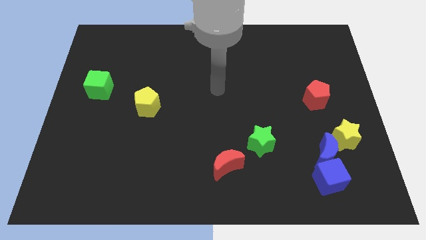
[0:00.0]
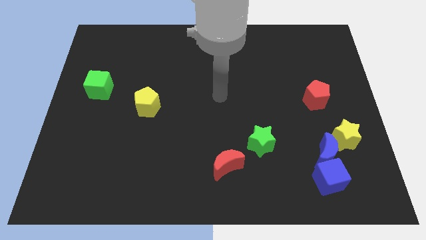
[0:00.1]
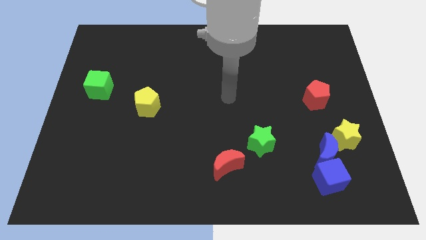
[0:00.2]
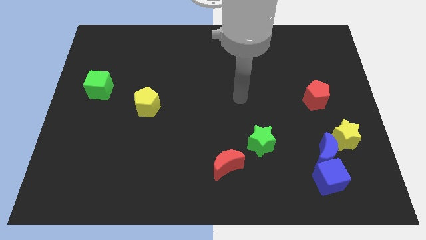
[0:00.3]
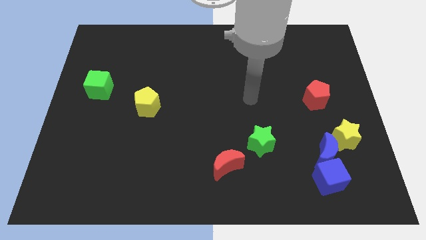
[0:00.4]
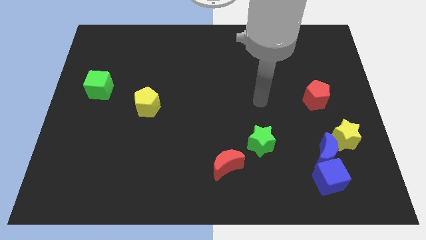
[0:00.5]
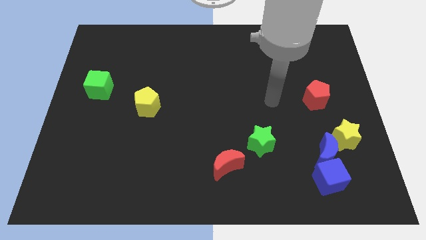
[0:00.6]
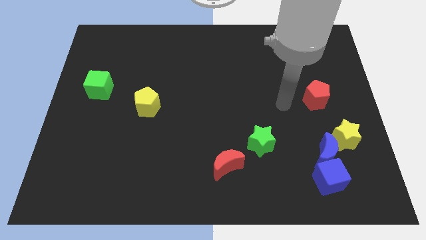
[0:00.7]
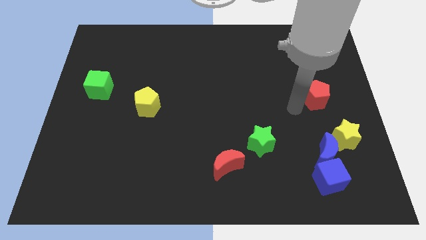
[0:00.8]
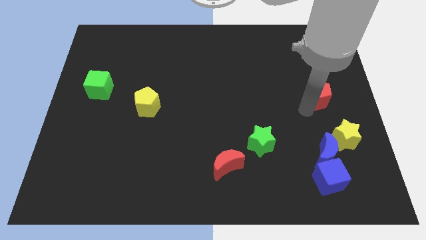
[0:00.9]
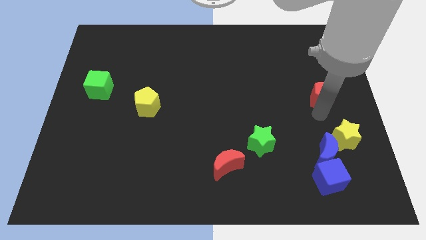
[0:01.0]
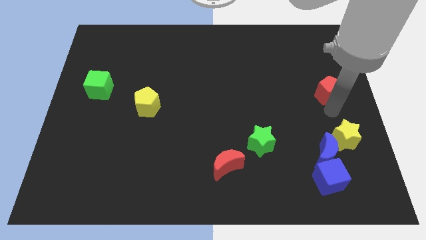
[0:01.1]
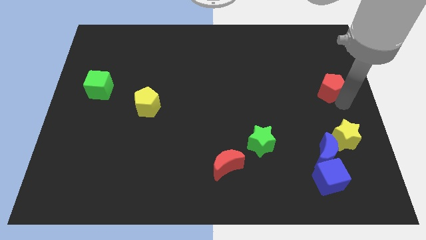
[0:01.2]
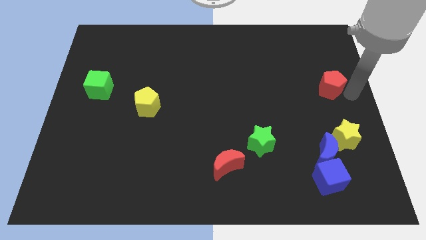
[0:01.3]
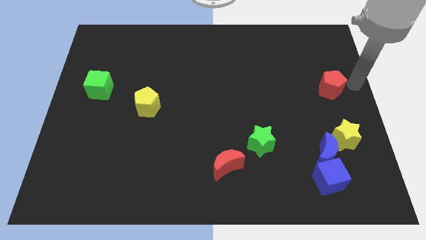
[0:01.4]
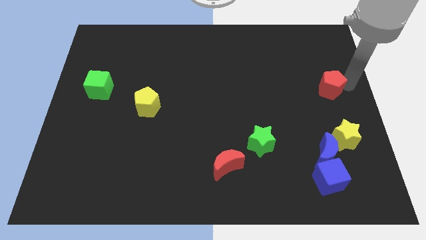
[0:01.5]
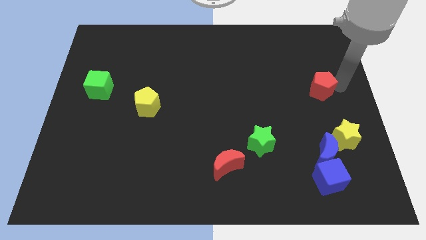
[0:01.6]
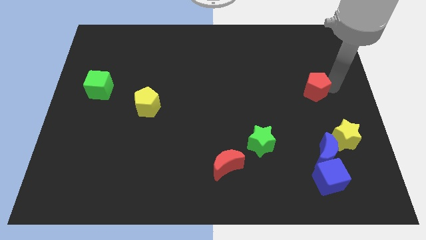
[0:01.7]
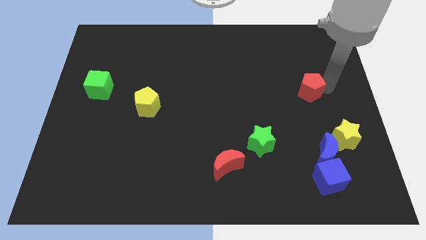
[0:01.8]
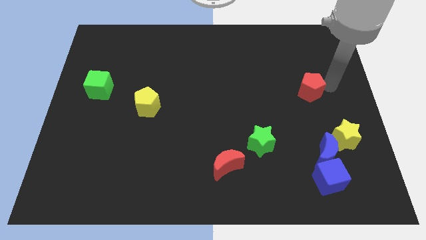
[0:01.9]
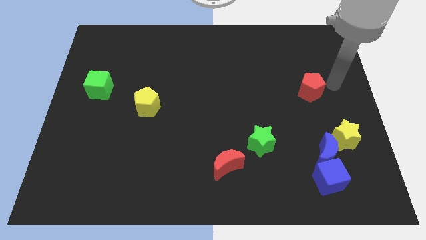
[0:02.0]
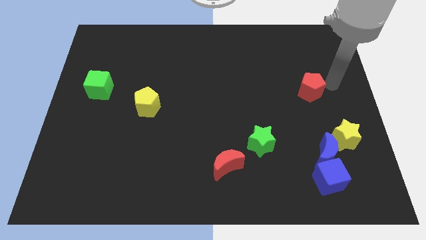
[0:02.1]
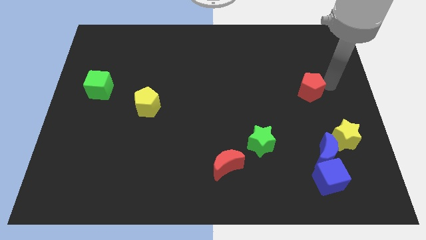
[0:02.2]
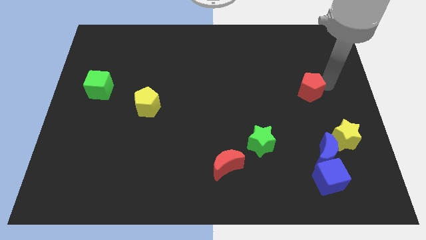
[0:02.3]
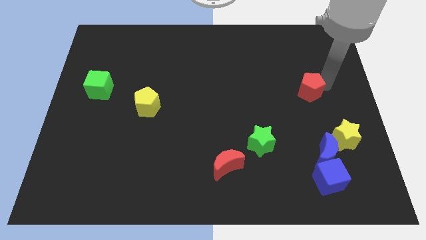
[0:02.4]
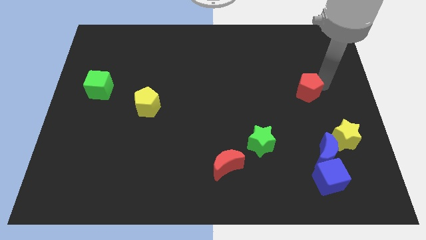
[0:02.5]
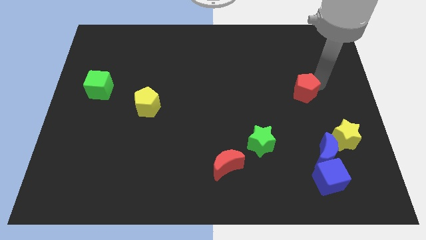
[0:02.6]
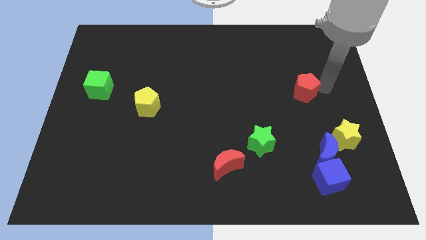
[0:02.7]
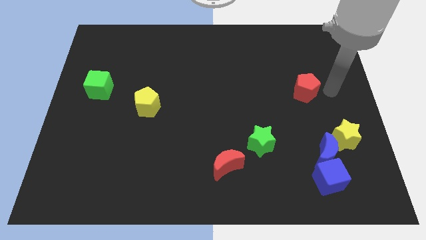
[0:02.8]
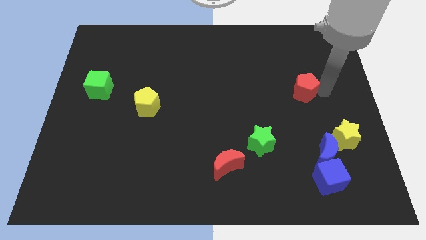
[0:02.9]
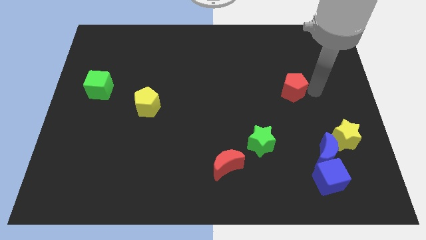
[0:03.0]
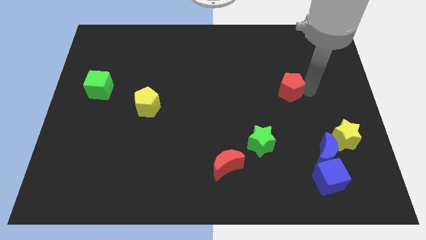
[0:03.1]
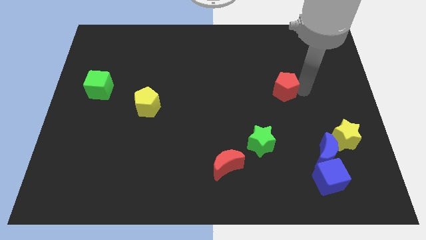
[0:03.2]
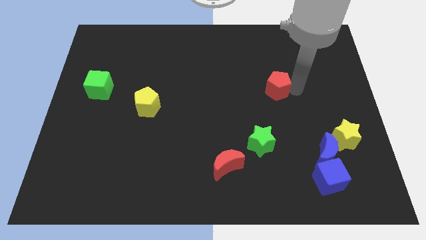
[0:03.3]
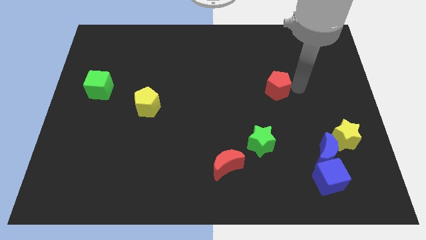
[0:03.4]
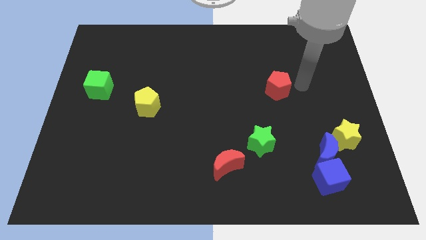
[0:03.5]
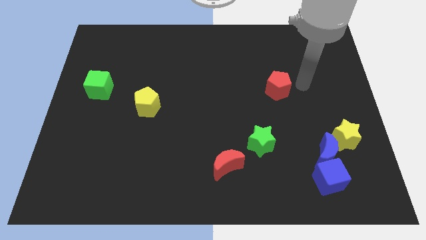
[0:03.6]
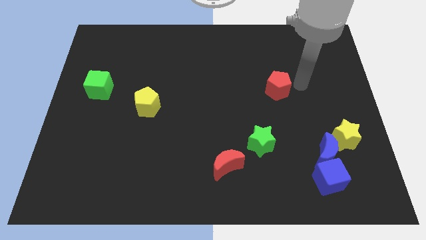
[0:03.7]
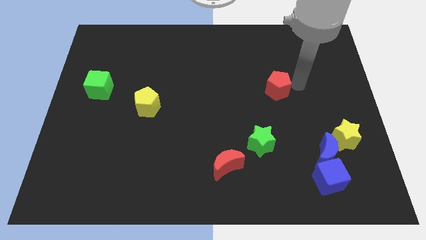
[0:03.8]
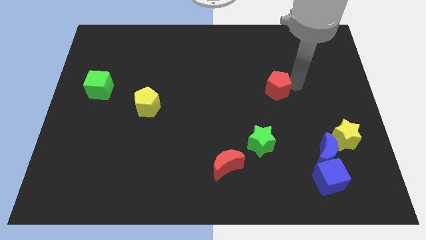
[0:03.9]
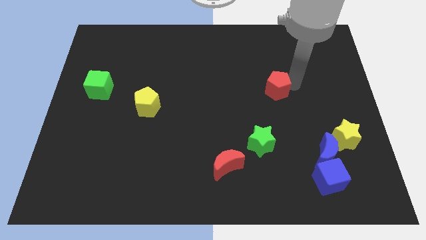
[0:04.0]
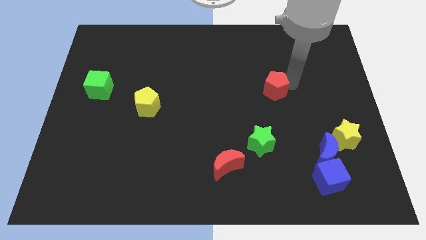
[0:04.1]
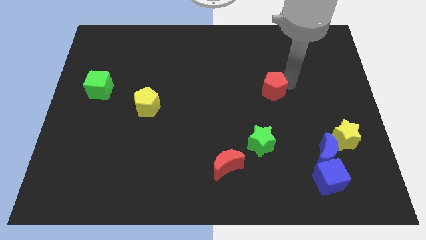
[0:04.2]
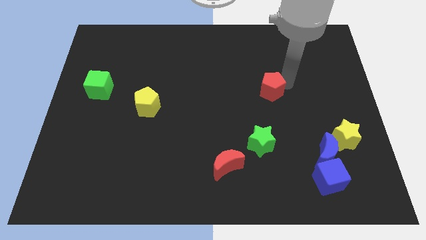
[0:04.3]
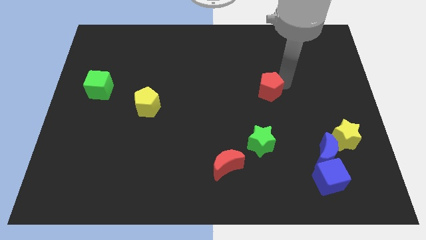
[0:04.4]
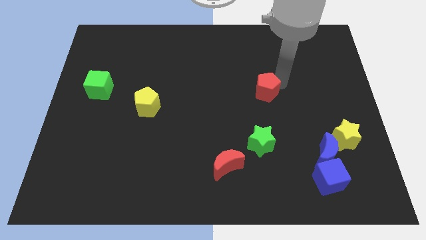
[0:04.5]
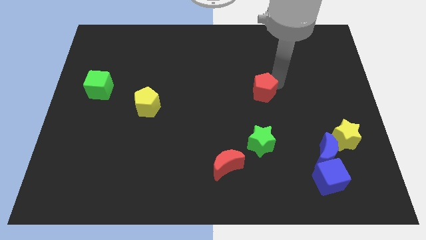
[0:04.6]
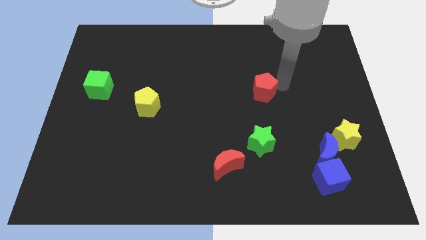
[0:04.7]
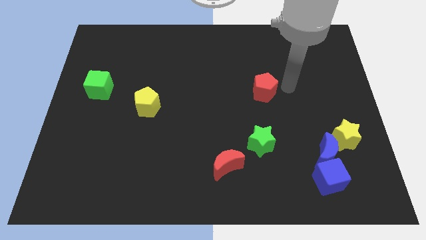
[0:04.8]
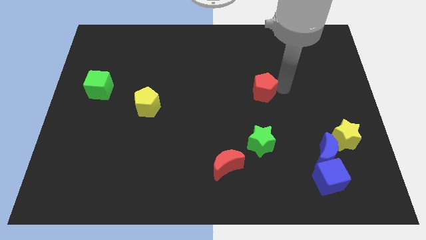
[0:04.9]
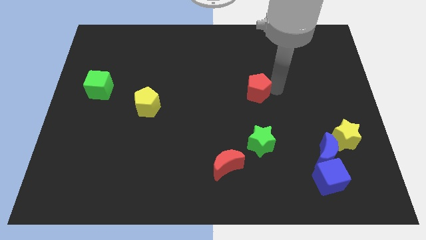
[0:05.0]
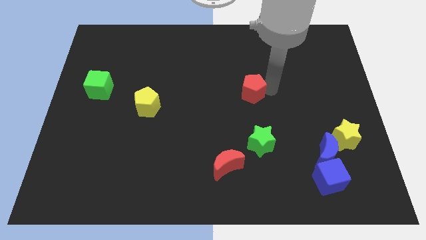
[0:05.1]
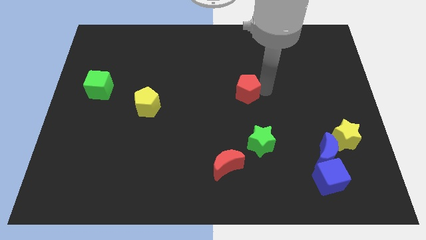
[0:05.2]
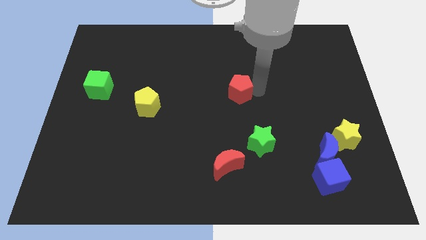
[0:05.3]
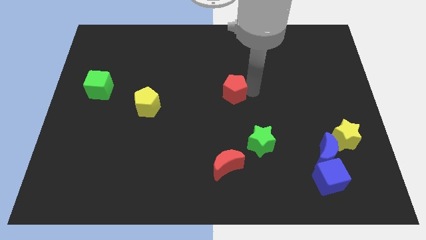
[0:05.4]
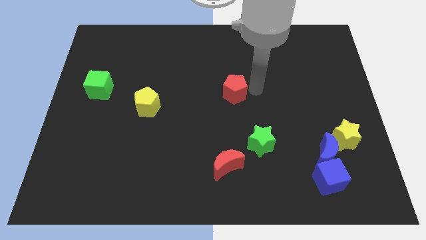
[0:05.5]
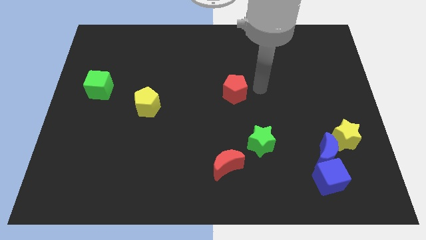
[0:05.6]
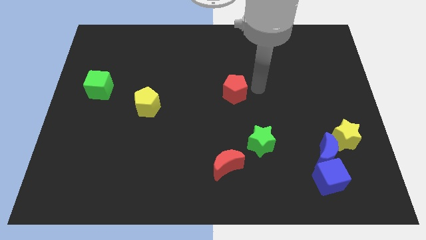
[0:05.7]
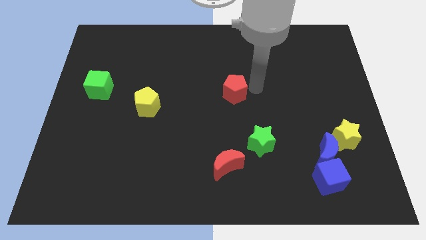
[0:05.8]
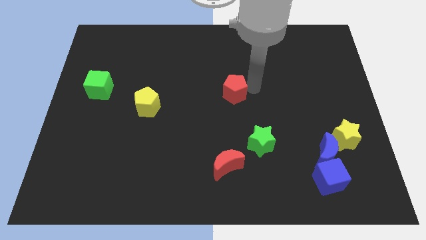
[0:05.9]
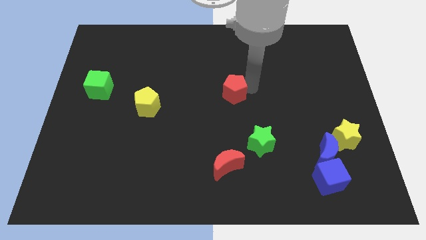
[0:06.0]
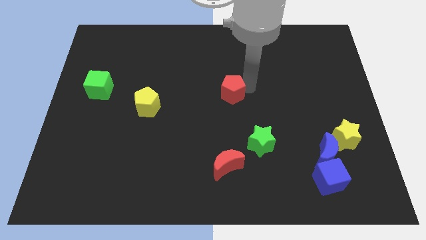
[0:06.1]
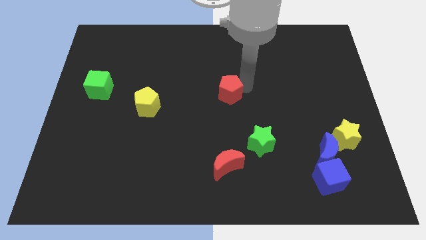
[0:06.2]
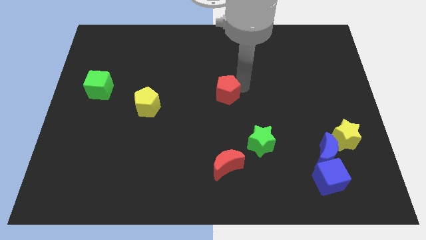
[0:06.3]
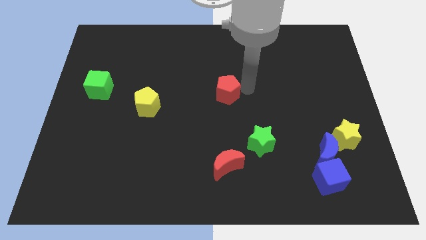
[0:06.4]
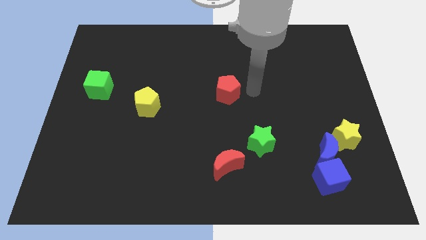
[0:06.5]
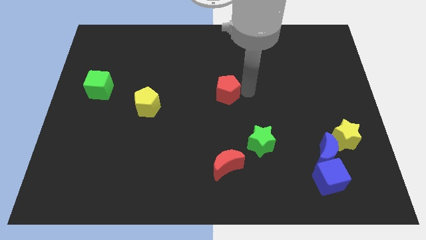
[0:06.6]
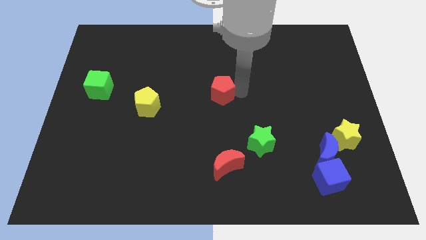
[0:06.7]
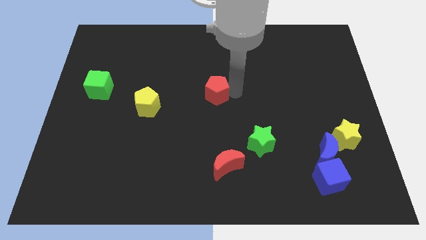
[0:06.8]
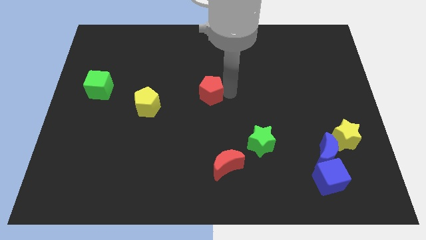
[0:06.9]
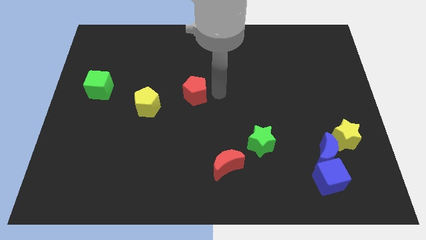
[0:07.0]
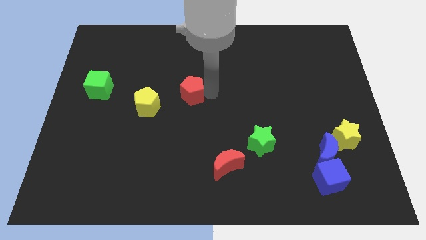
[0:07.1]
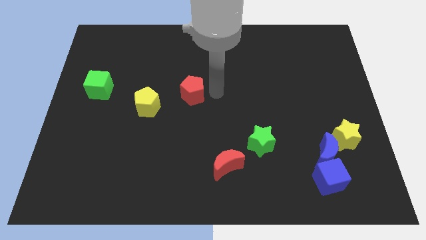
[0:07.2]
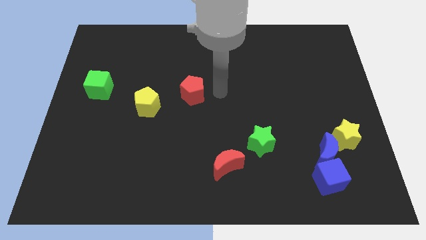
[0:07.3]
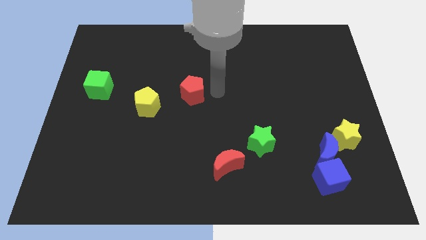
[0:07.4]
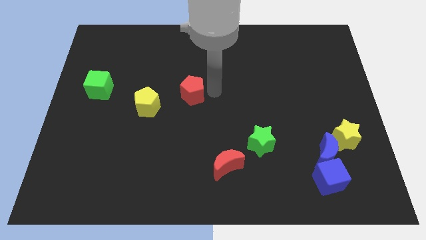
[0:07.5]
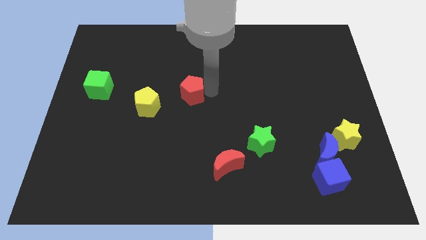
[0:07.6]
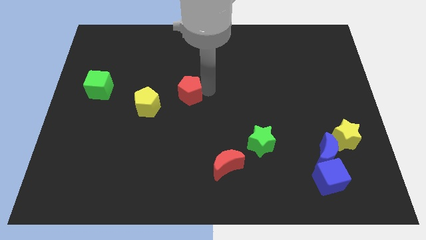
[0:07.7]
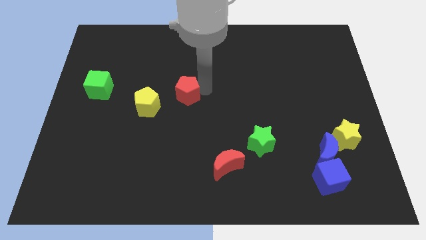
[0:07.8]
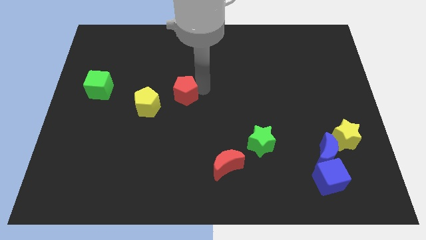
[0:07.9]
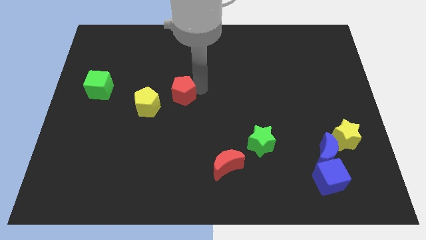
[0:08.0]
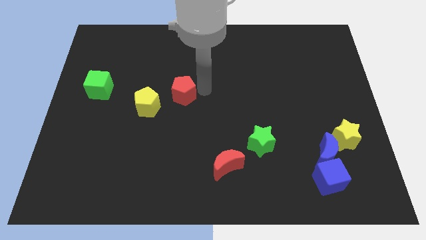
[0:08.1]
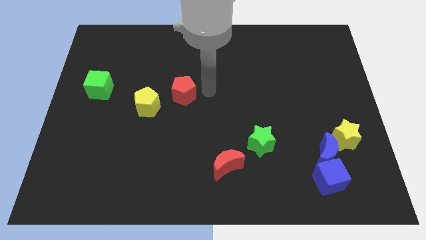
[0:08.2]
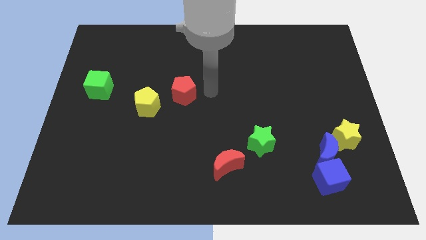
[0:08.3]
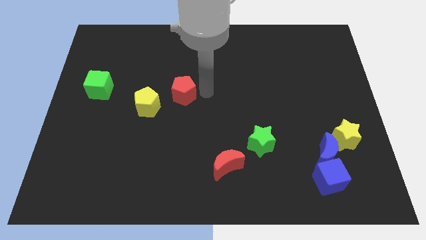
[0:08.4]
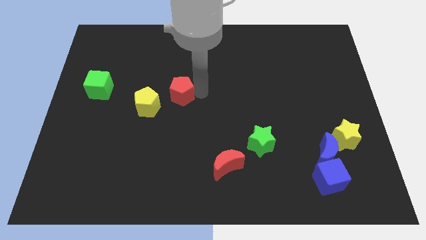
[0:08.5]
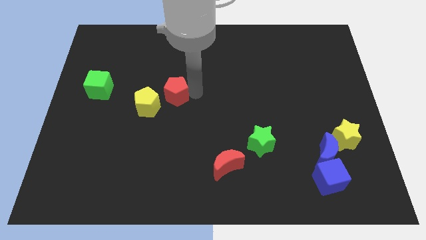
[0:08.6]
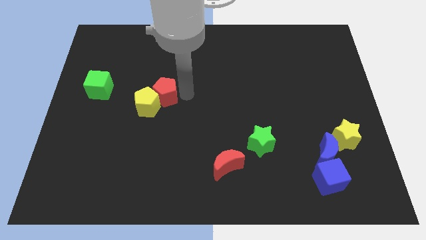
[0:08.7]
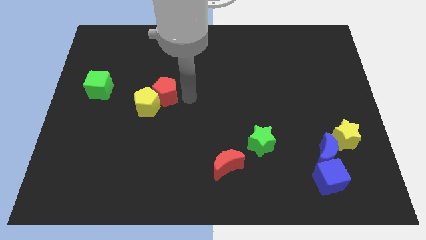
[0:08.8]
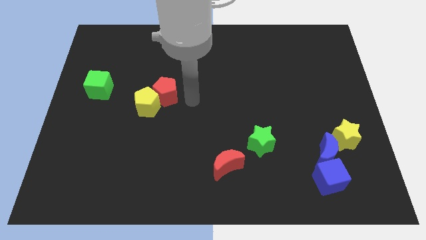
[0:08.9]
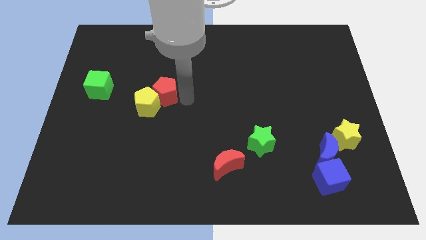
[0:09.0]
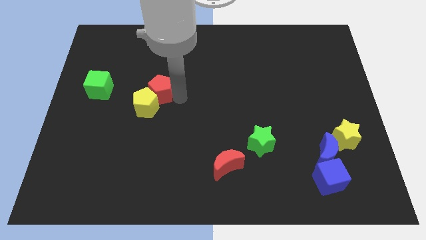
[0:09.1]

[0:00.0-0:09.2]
push the red pentagon right of the green cube
